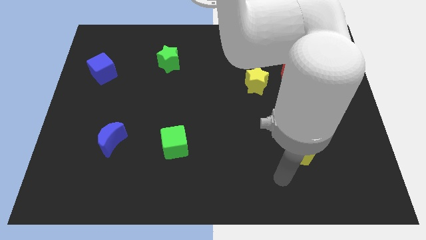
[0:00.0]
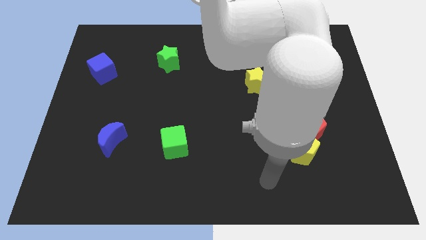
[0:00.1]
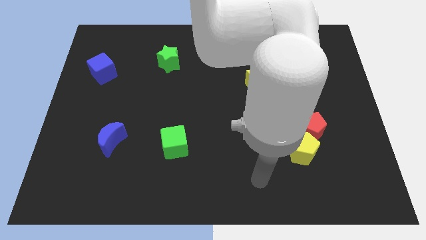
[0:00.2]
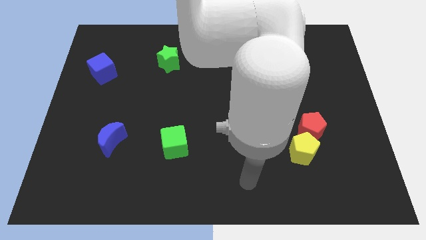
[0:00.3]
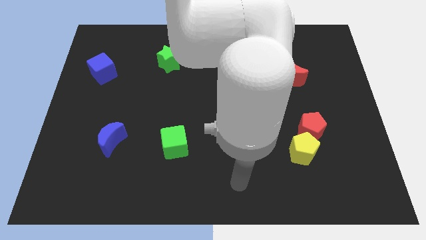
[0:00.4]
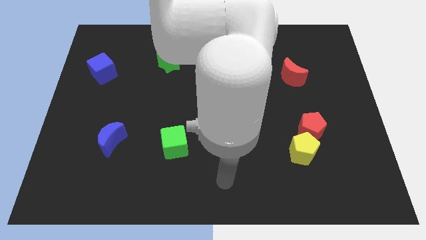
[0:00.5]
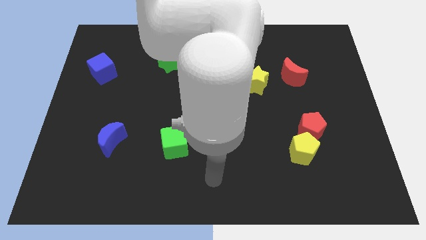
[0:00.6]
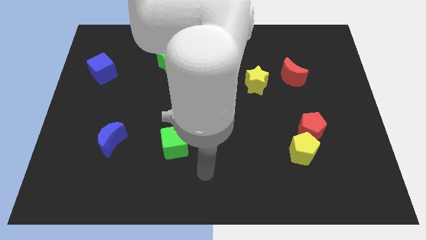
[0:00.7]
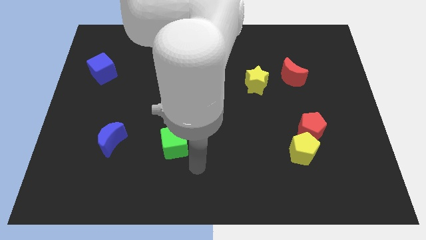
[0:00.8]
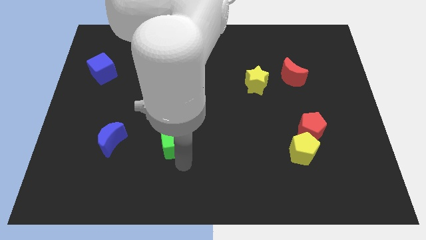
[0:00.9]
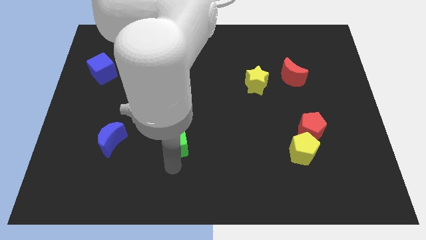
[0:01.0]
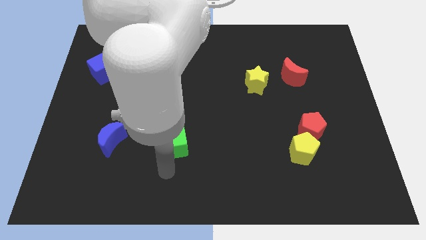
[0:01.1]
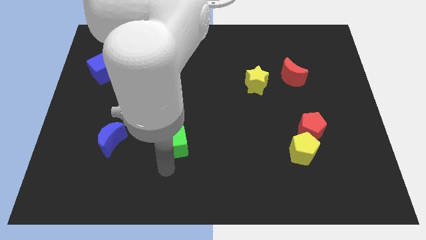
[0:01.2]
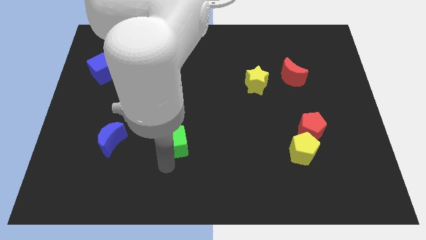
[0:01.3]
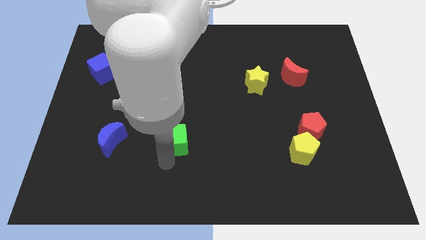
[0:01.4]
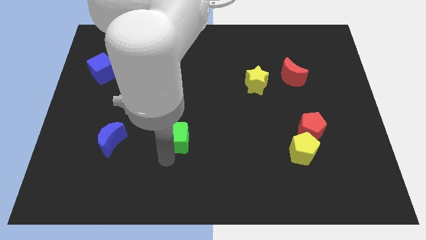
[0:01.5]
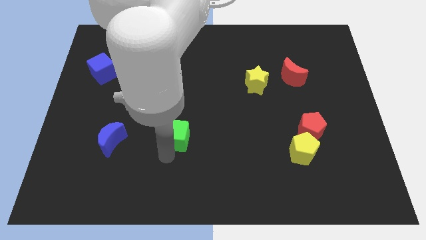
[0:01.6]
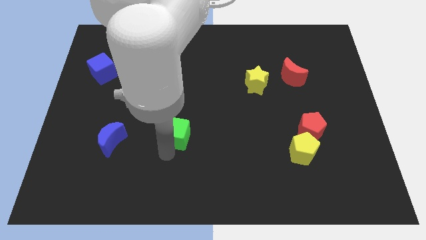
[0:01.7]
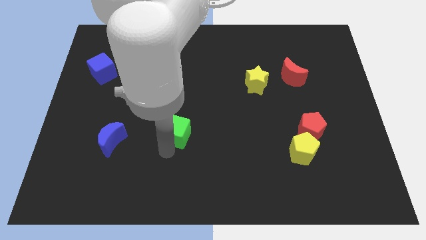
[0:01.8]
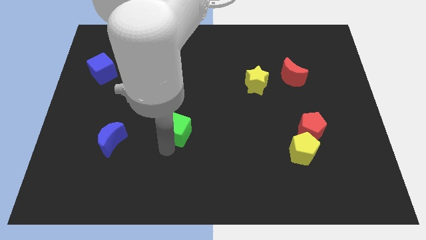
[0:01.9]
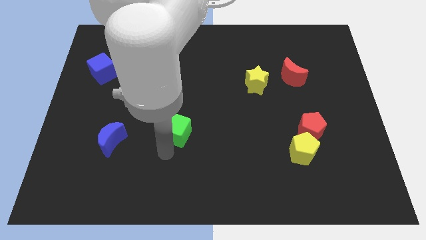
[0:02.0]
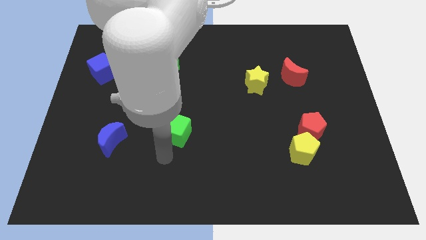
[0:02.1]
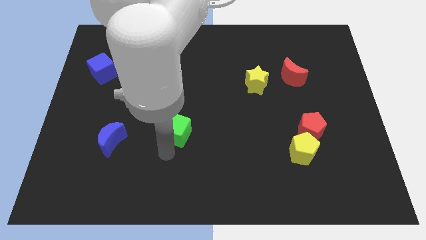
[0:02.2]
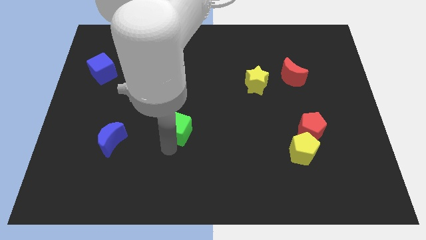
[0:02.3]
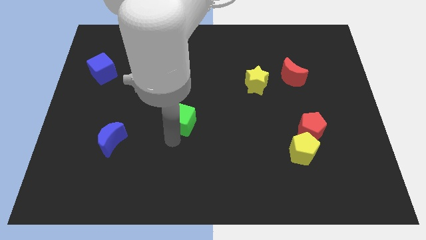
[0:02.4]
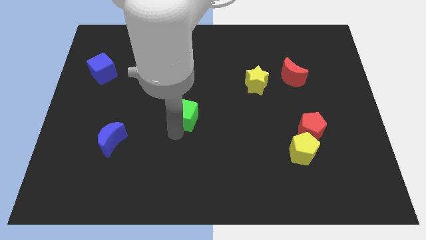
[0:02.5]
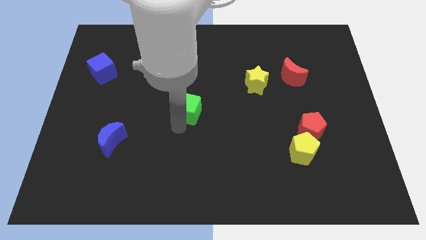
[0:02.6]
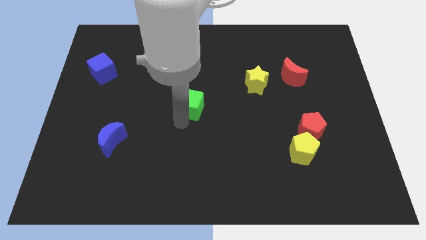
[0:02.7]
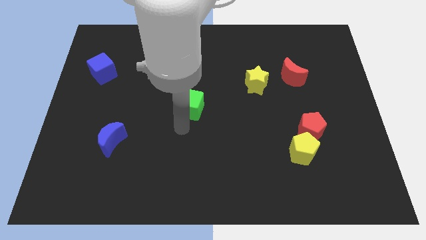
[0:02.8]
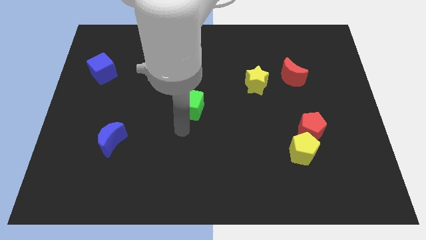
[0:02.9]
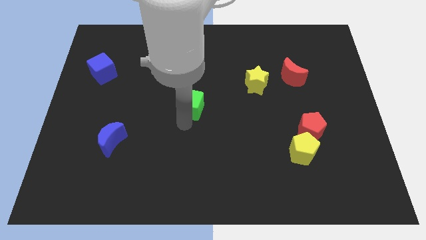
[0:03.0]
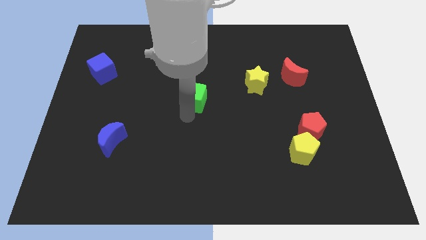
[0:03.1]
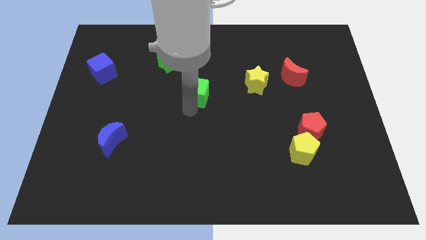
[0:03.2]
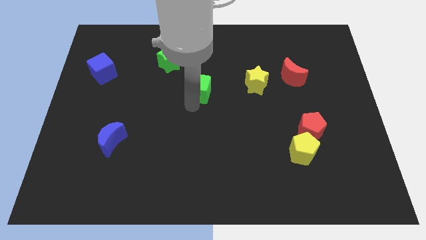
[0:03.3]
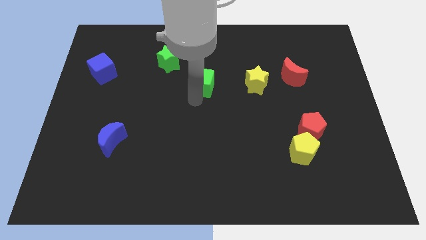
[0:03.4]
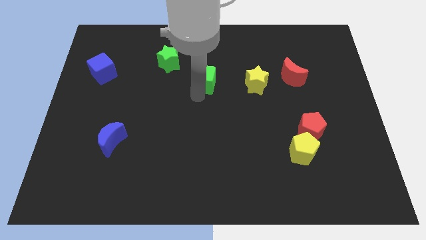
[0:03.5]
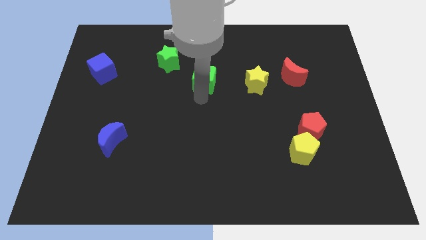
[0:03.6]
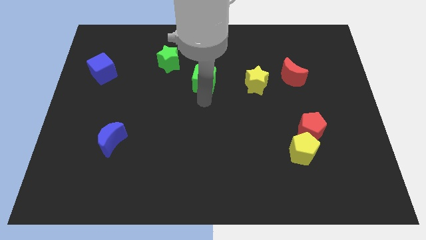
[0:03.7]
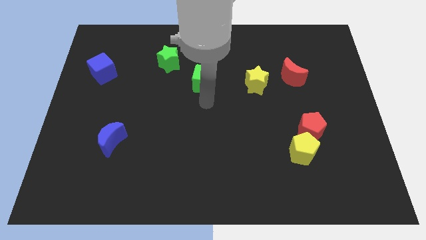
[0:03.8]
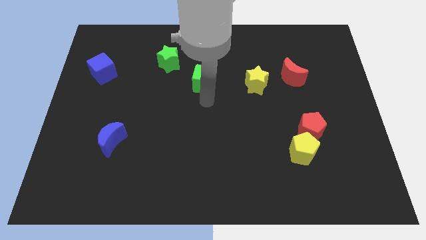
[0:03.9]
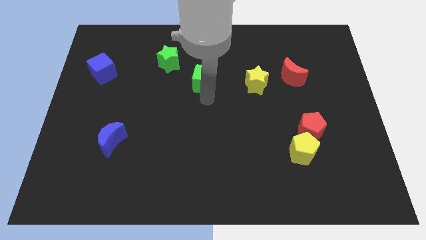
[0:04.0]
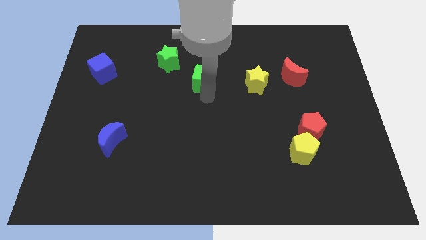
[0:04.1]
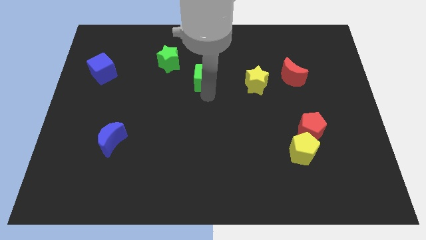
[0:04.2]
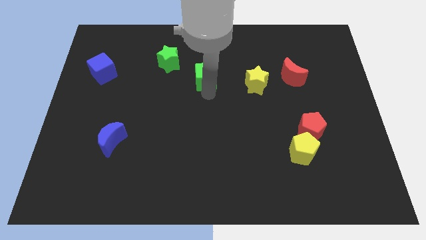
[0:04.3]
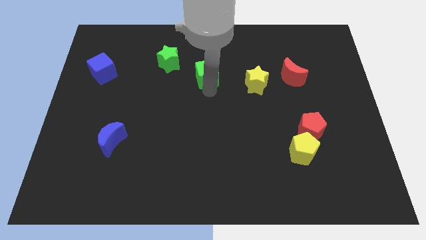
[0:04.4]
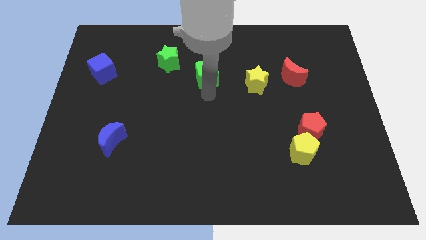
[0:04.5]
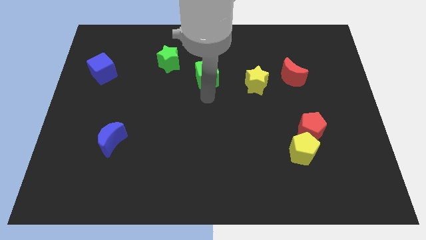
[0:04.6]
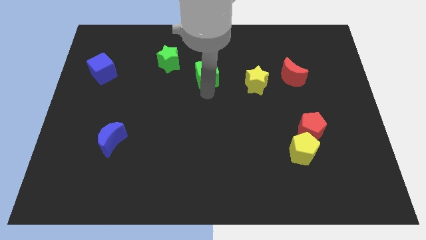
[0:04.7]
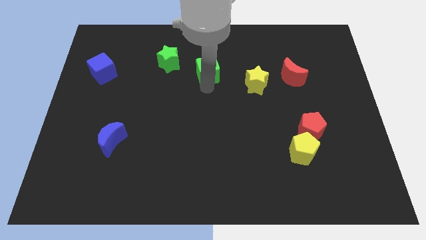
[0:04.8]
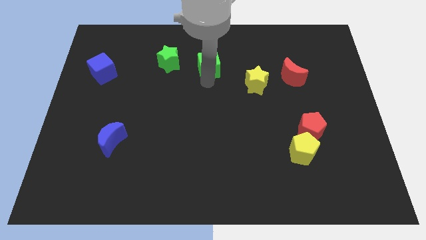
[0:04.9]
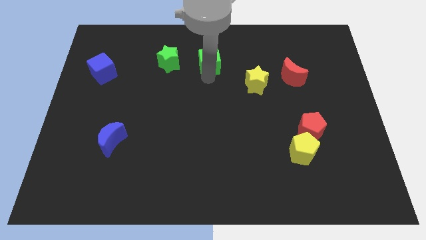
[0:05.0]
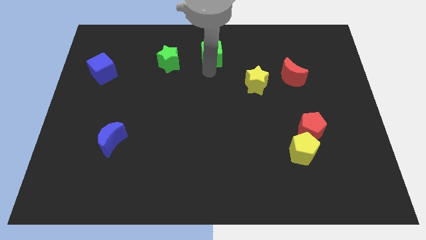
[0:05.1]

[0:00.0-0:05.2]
put the green cube to the towards your base

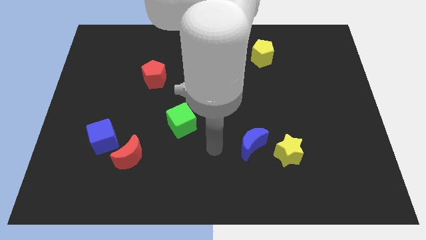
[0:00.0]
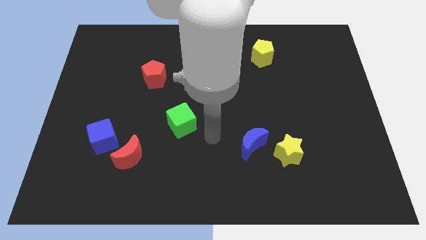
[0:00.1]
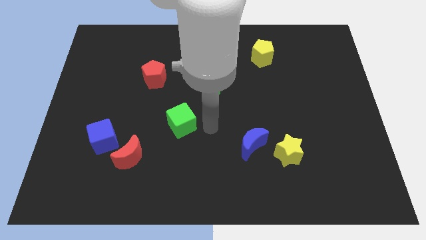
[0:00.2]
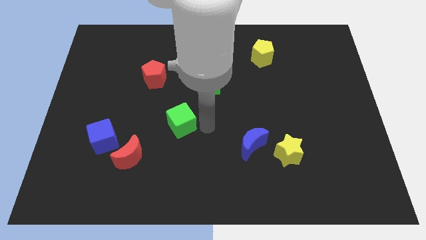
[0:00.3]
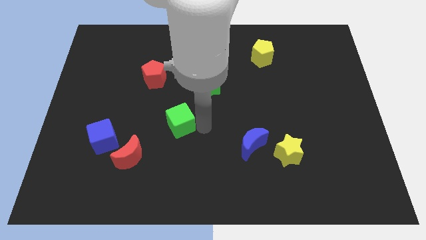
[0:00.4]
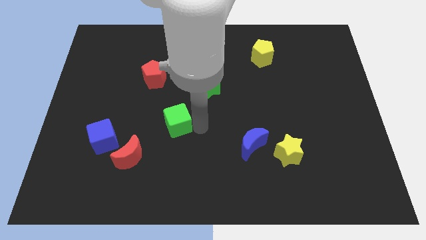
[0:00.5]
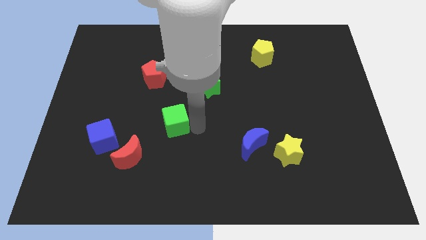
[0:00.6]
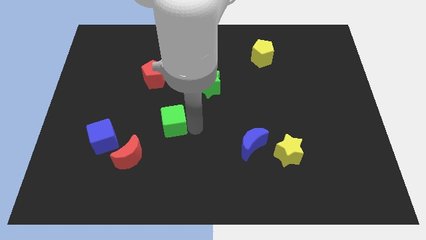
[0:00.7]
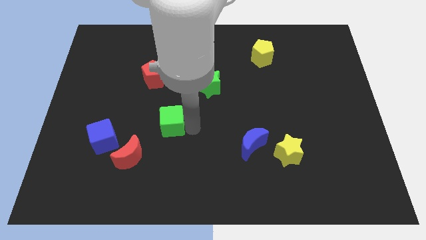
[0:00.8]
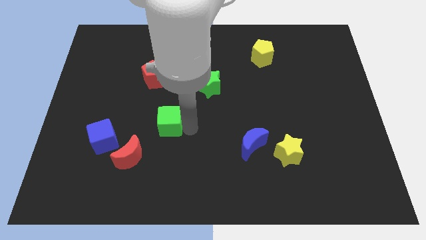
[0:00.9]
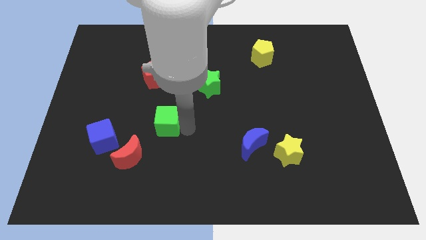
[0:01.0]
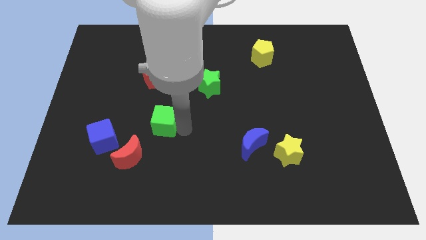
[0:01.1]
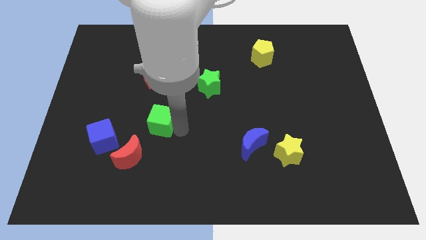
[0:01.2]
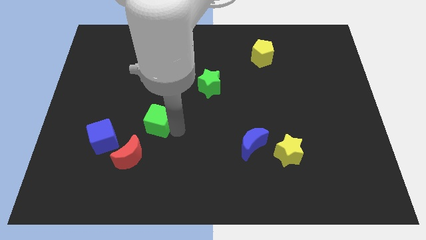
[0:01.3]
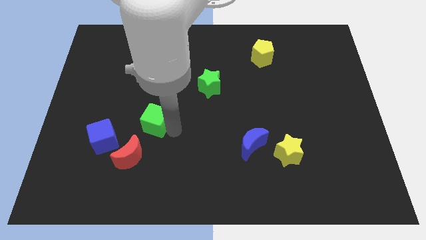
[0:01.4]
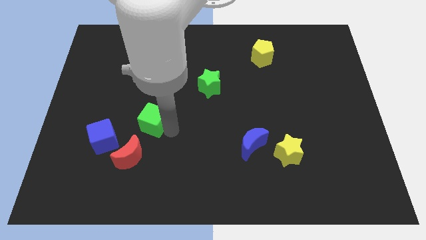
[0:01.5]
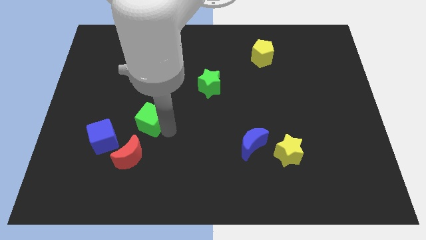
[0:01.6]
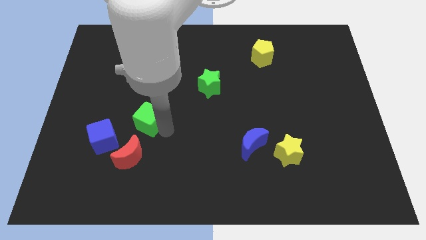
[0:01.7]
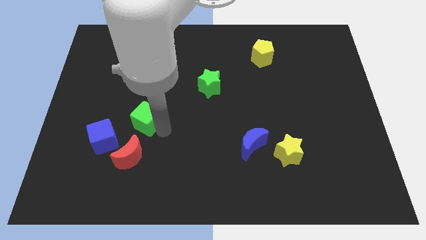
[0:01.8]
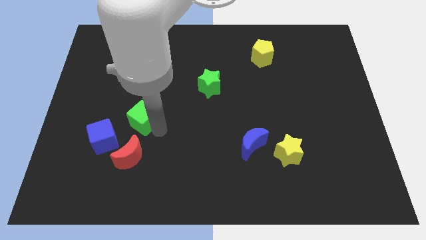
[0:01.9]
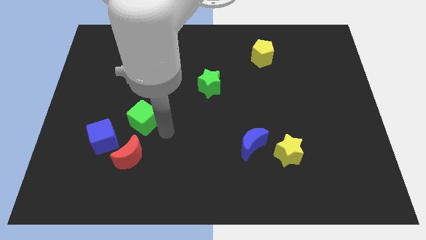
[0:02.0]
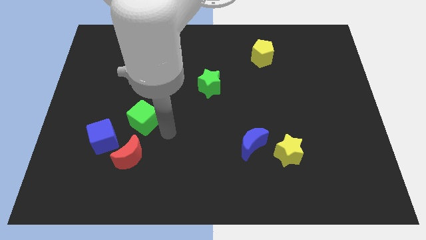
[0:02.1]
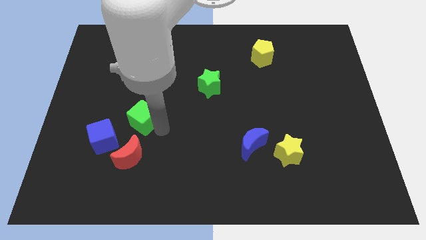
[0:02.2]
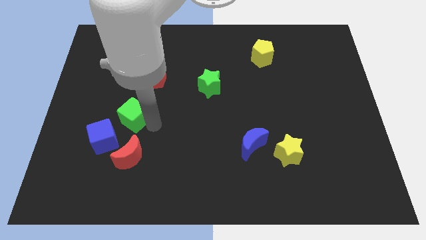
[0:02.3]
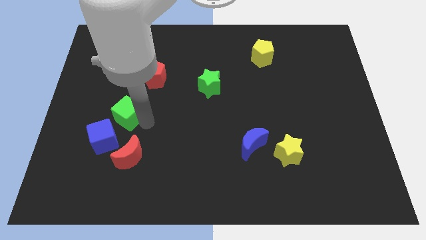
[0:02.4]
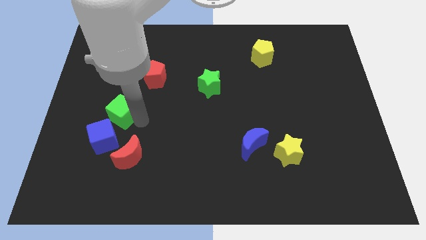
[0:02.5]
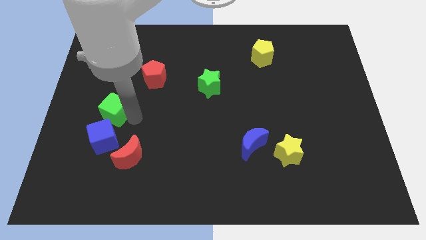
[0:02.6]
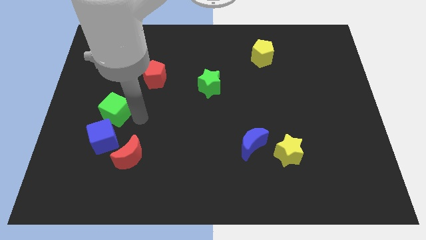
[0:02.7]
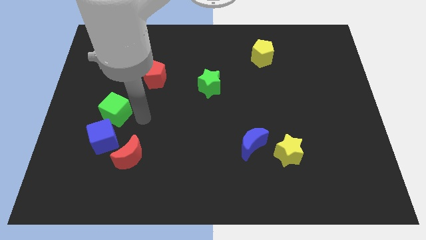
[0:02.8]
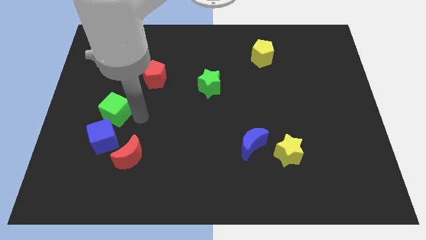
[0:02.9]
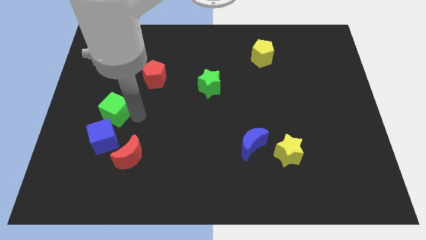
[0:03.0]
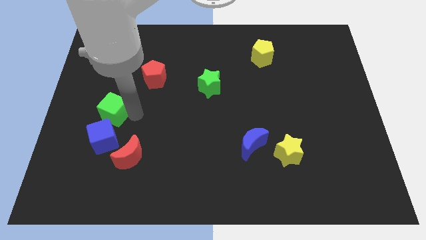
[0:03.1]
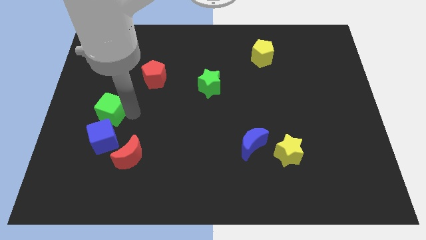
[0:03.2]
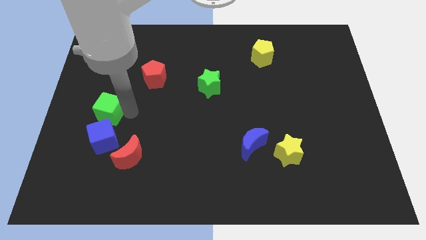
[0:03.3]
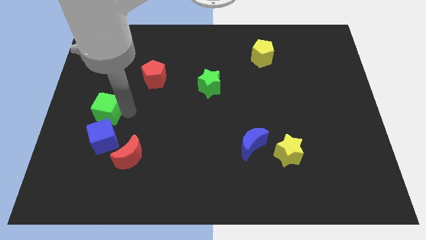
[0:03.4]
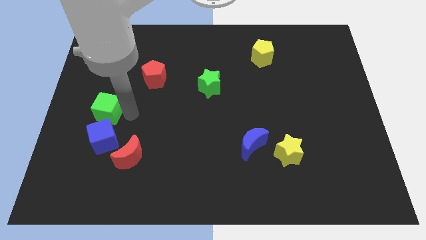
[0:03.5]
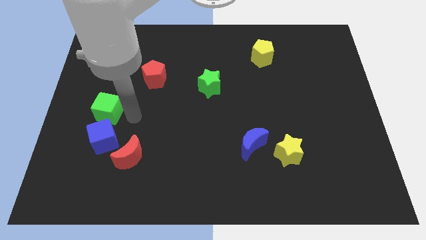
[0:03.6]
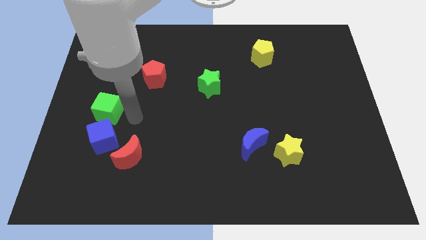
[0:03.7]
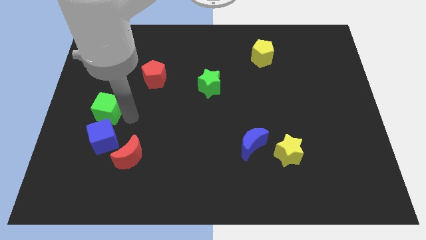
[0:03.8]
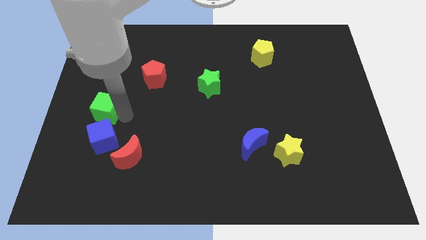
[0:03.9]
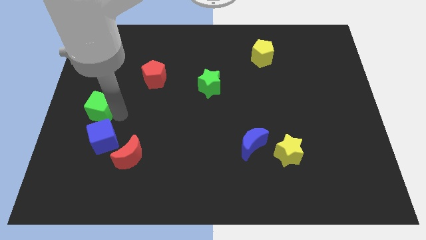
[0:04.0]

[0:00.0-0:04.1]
put the green cube to the left side
